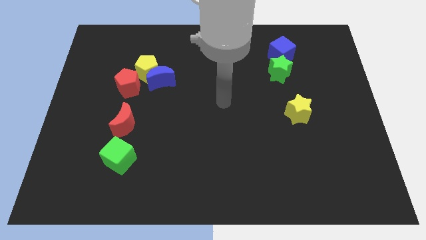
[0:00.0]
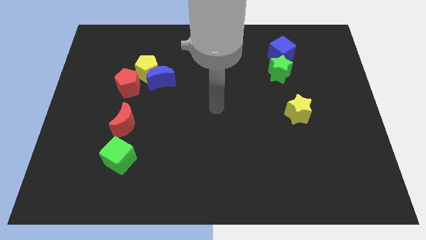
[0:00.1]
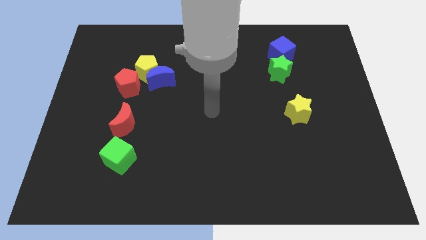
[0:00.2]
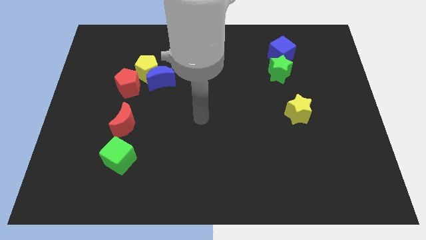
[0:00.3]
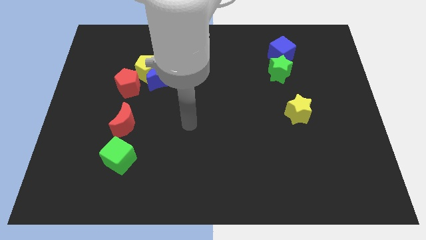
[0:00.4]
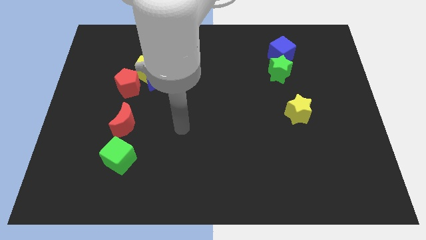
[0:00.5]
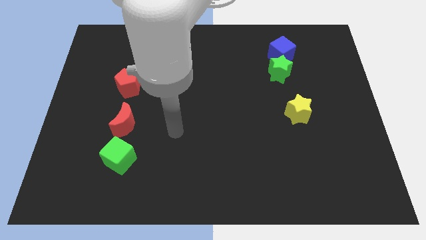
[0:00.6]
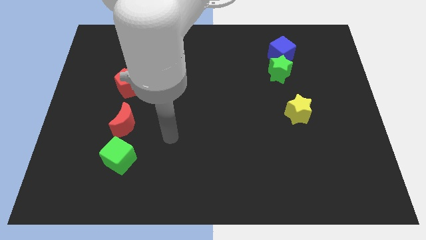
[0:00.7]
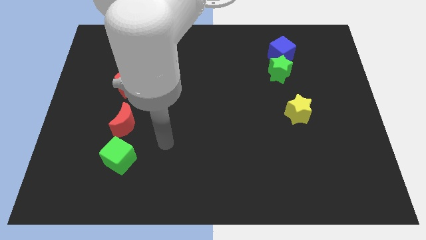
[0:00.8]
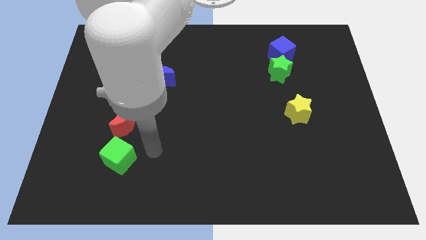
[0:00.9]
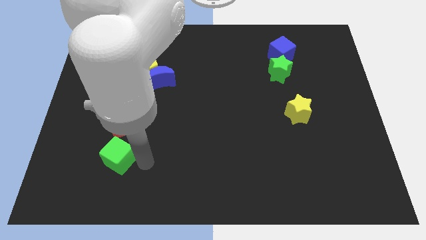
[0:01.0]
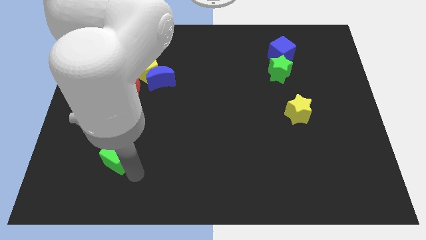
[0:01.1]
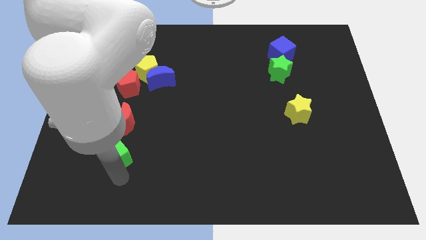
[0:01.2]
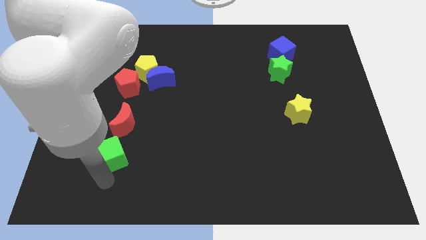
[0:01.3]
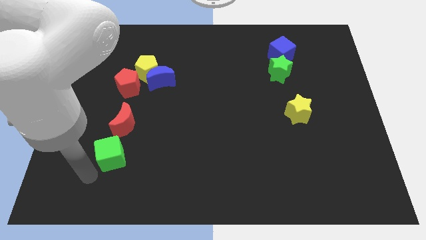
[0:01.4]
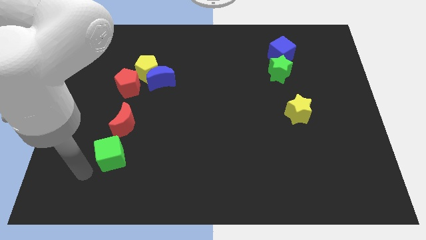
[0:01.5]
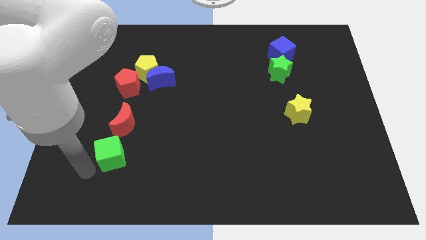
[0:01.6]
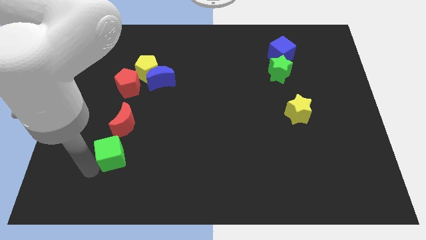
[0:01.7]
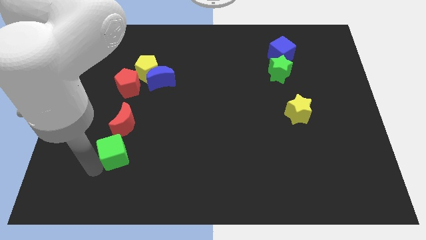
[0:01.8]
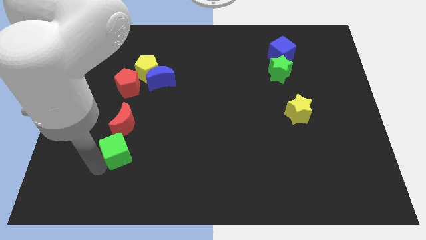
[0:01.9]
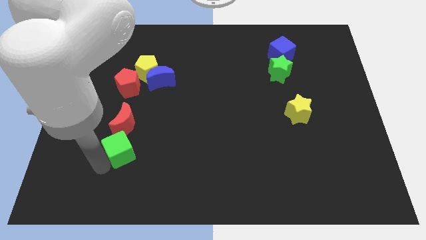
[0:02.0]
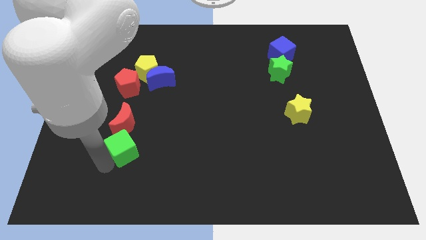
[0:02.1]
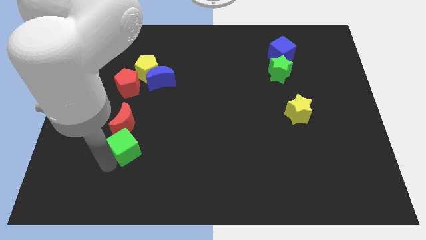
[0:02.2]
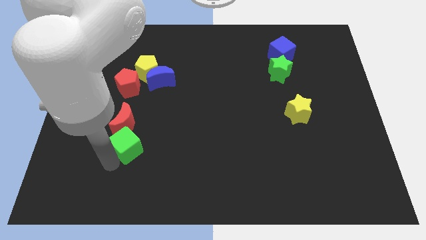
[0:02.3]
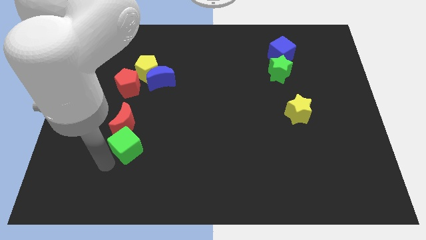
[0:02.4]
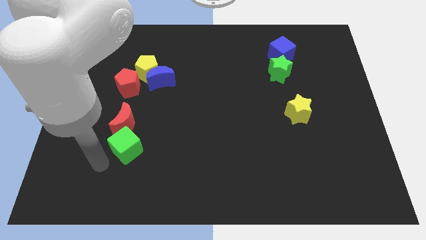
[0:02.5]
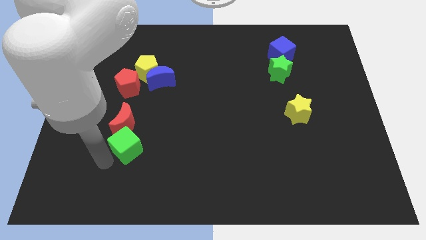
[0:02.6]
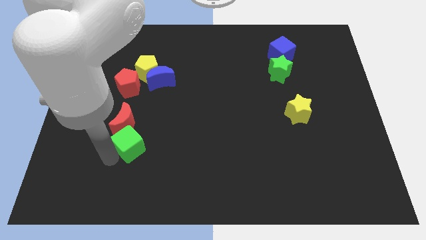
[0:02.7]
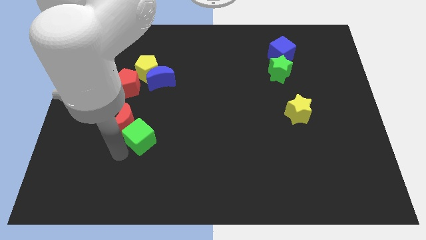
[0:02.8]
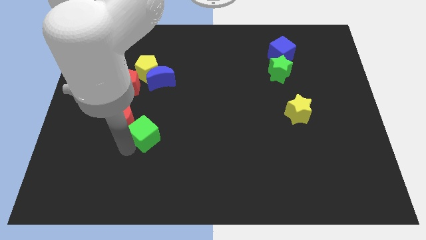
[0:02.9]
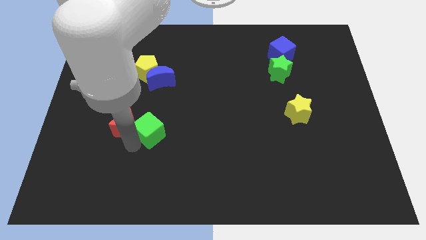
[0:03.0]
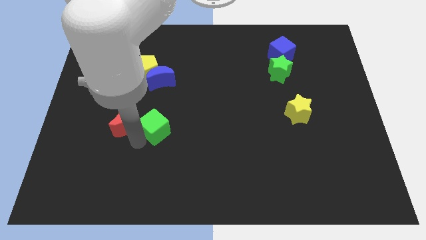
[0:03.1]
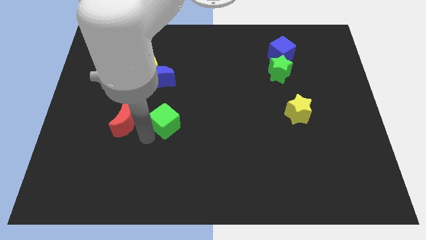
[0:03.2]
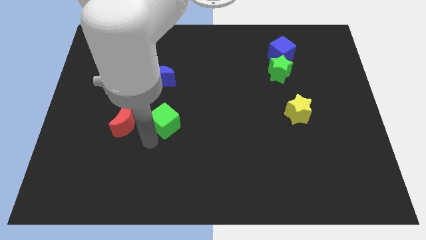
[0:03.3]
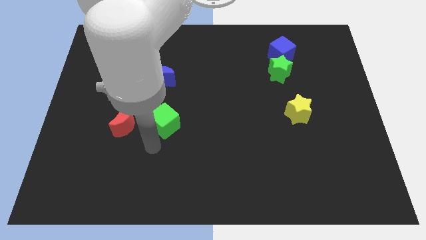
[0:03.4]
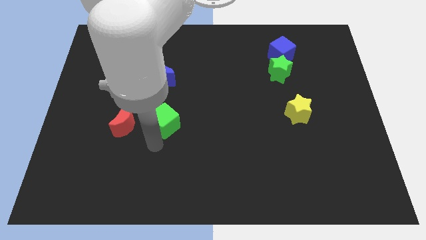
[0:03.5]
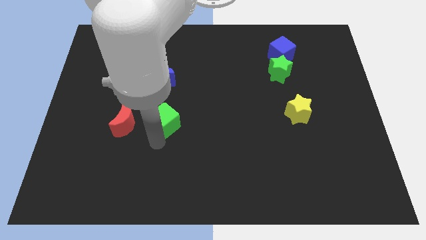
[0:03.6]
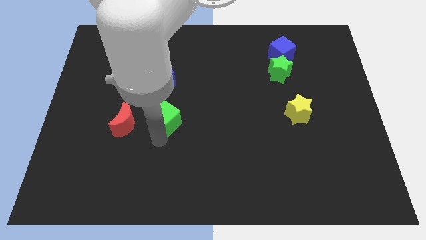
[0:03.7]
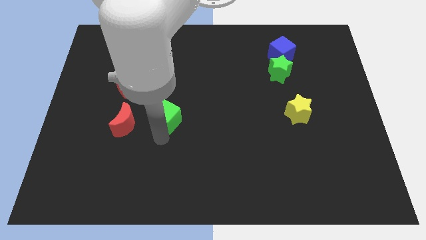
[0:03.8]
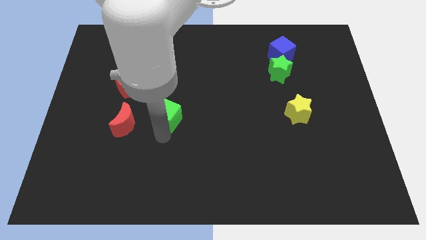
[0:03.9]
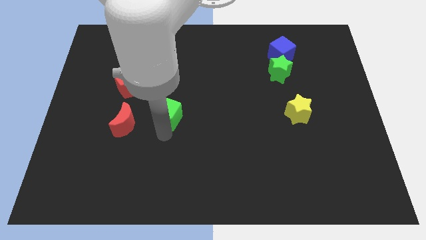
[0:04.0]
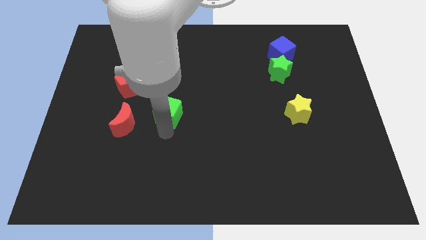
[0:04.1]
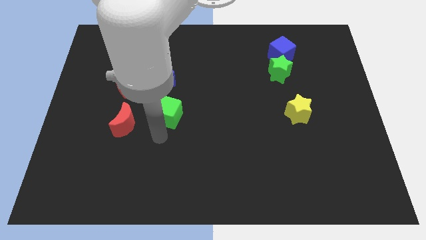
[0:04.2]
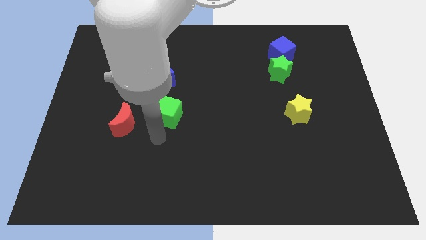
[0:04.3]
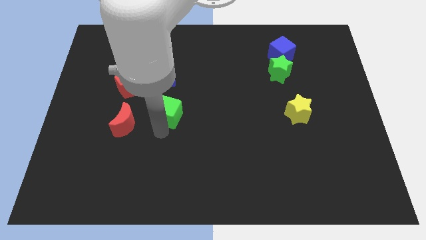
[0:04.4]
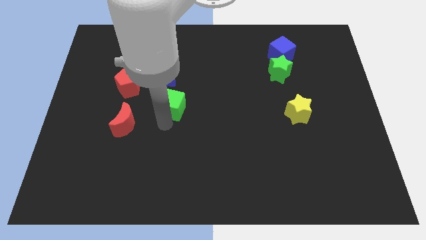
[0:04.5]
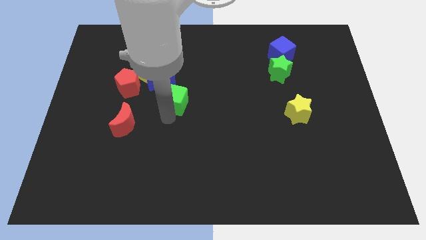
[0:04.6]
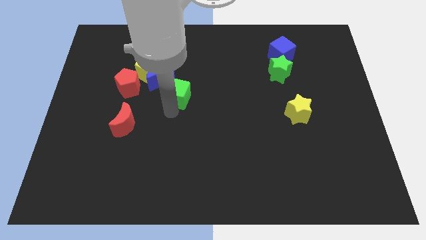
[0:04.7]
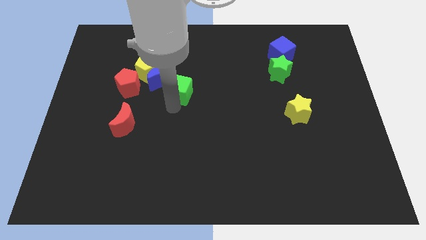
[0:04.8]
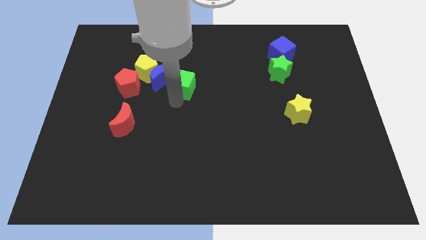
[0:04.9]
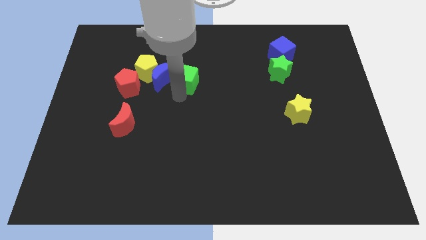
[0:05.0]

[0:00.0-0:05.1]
slide the green cube right of the yellow pentagon

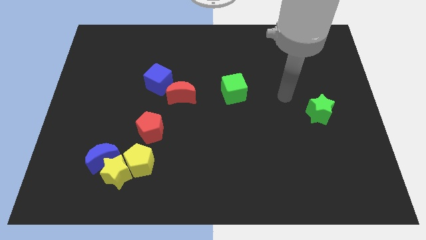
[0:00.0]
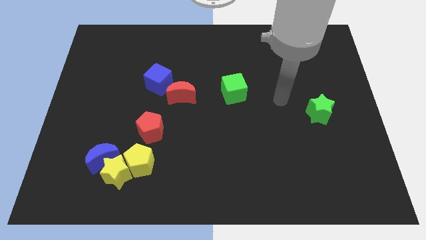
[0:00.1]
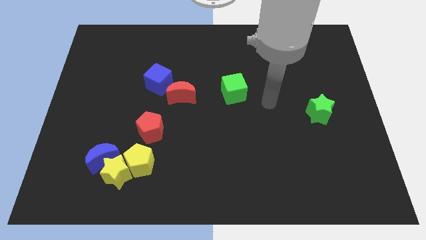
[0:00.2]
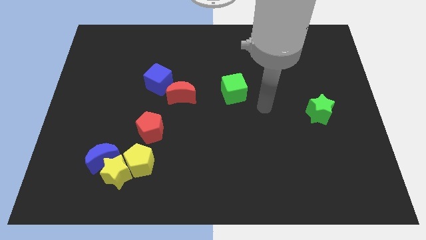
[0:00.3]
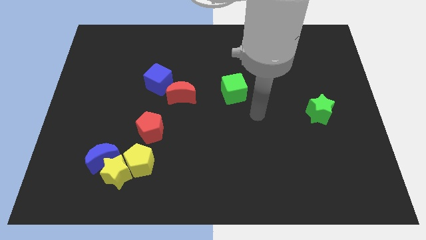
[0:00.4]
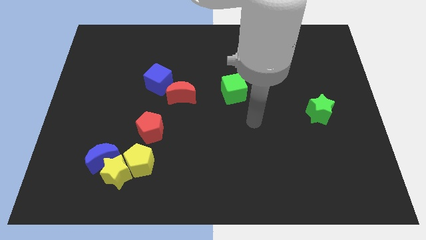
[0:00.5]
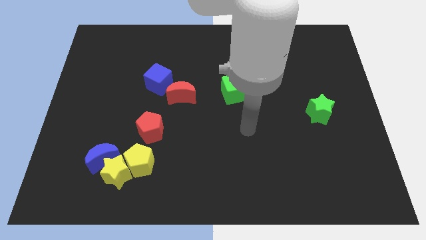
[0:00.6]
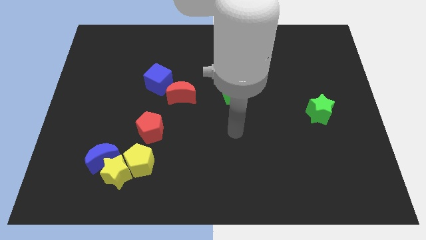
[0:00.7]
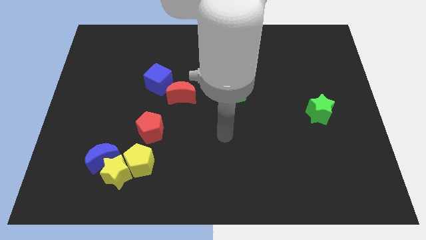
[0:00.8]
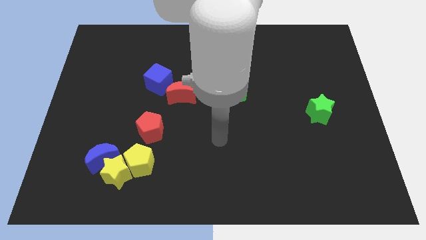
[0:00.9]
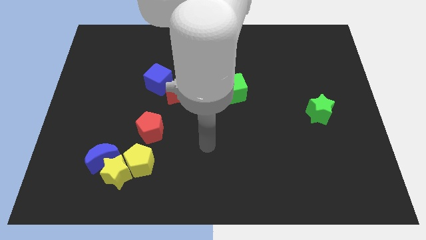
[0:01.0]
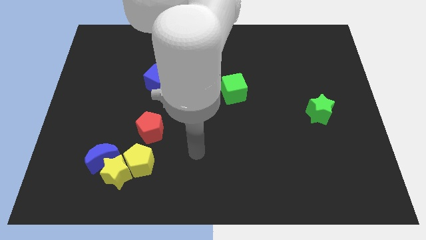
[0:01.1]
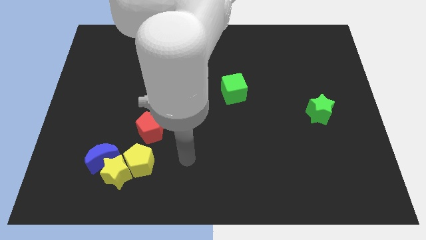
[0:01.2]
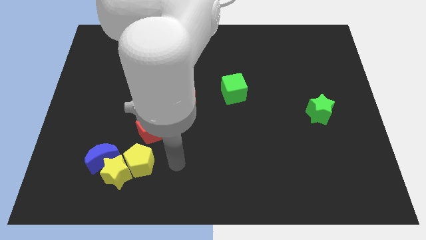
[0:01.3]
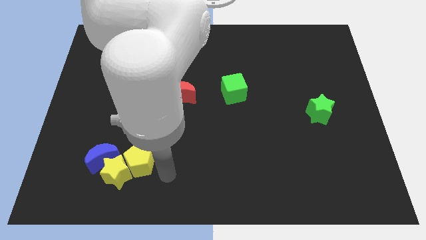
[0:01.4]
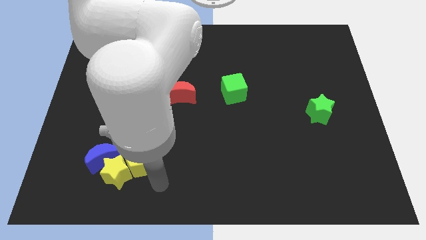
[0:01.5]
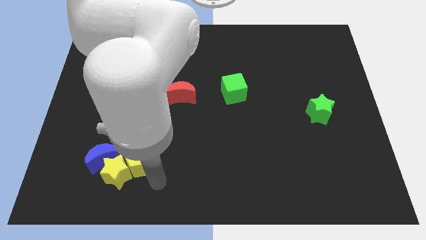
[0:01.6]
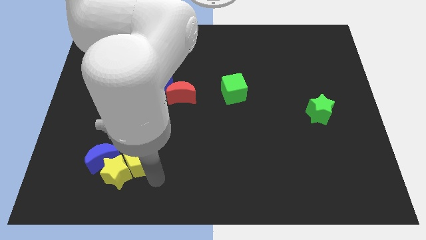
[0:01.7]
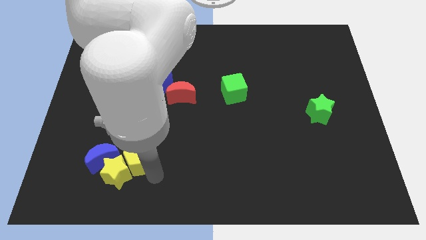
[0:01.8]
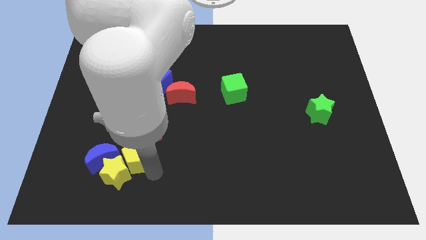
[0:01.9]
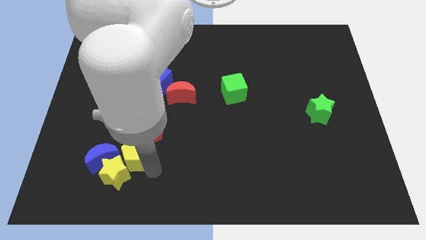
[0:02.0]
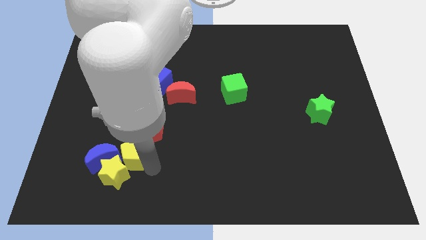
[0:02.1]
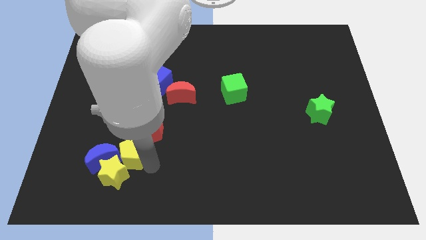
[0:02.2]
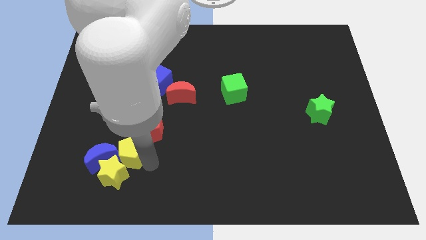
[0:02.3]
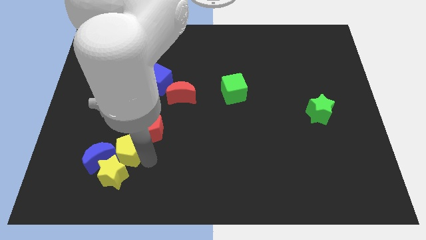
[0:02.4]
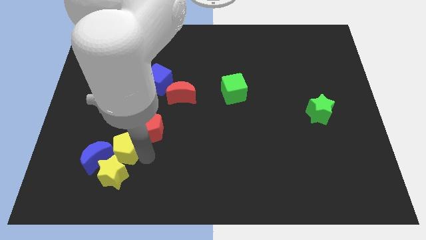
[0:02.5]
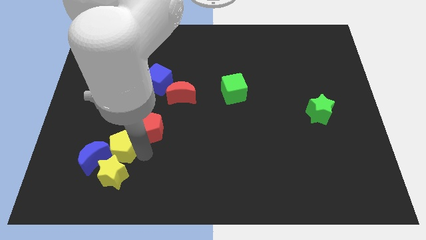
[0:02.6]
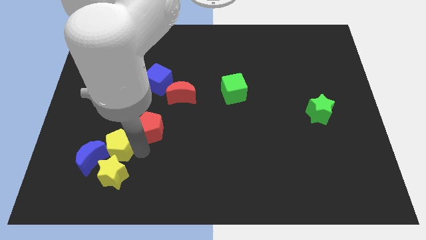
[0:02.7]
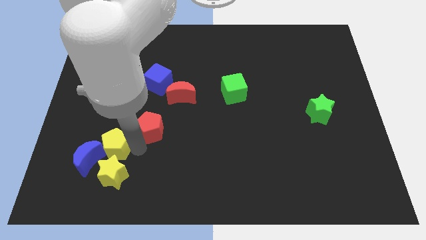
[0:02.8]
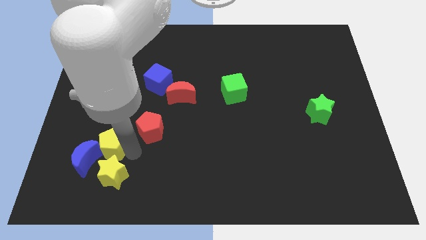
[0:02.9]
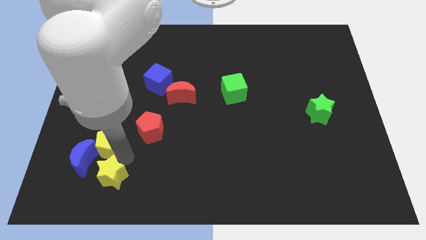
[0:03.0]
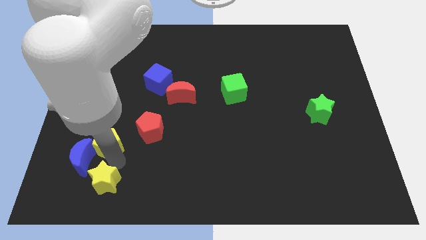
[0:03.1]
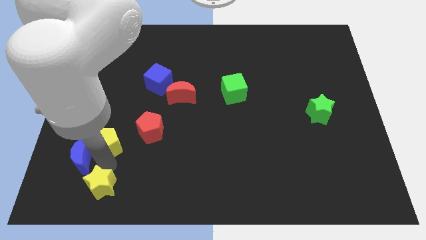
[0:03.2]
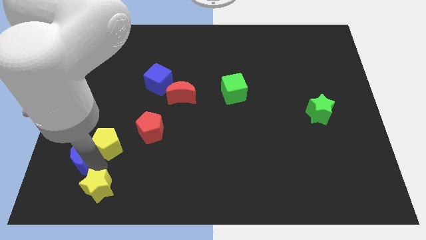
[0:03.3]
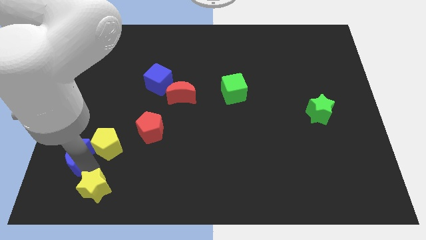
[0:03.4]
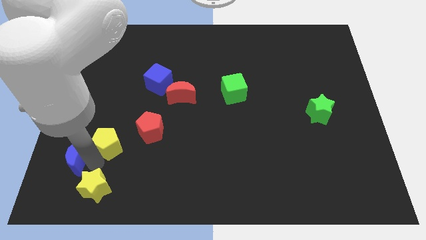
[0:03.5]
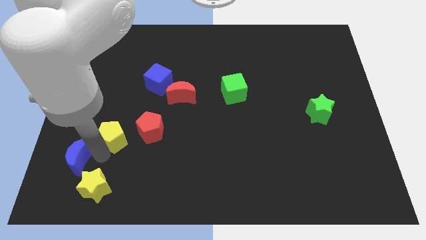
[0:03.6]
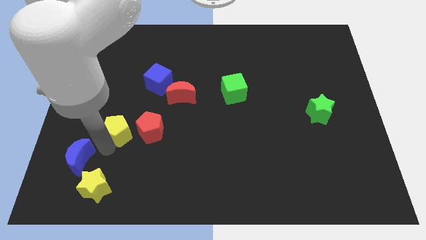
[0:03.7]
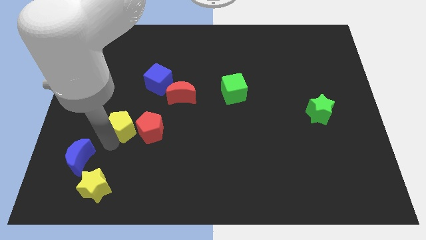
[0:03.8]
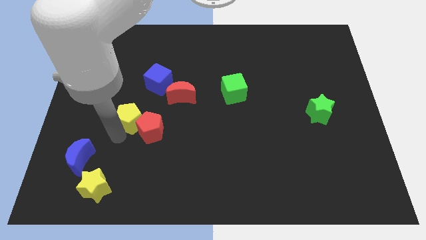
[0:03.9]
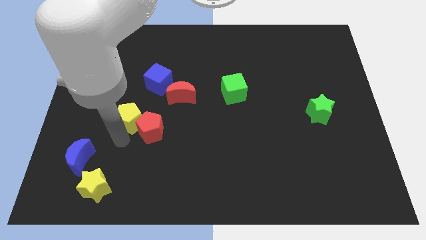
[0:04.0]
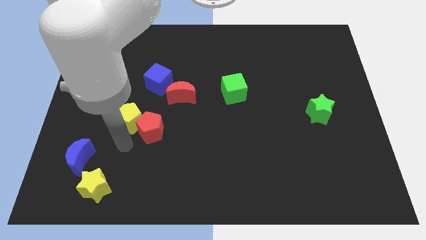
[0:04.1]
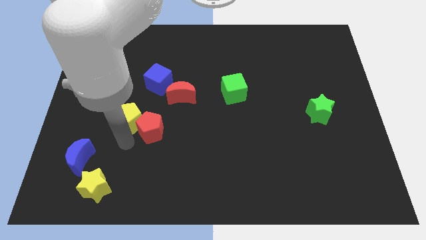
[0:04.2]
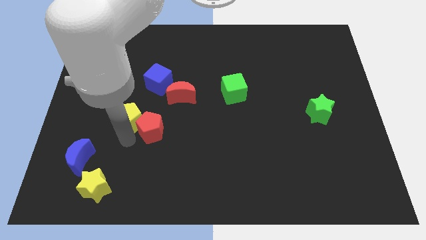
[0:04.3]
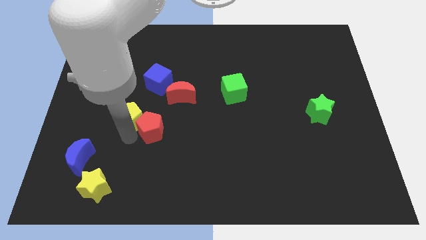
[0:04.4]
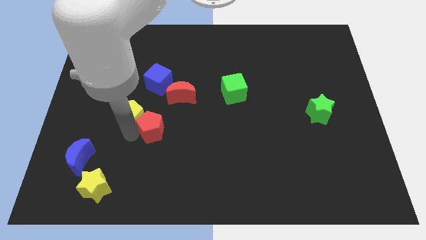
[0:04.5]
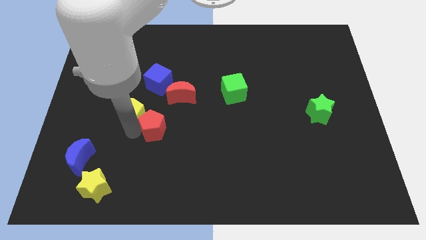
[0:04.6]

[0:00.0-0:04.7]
move the yellow pentagon to the bottom left of the blue cube
